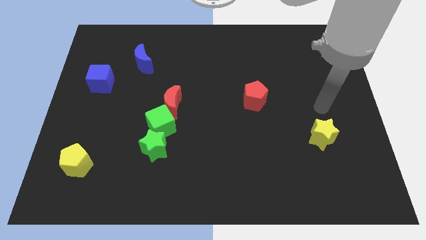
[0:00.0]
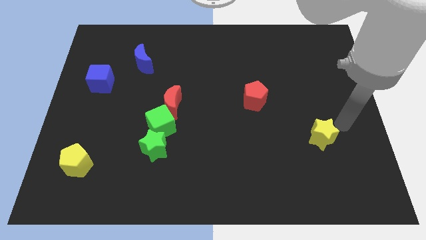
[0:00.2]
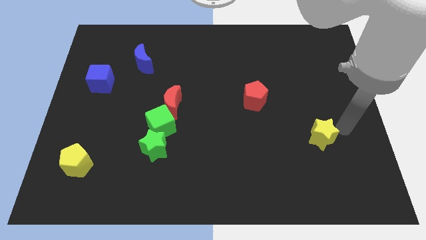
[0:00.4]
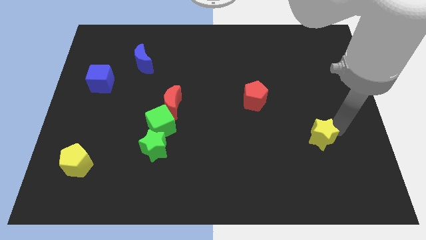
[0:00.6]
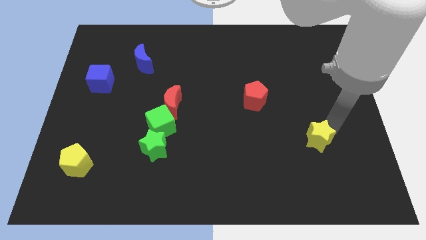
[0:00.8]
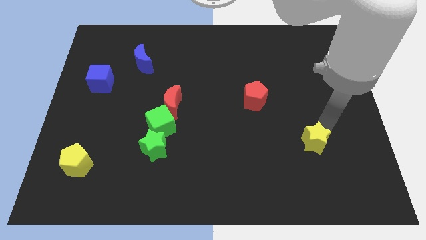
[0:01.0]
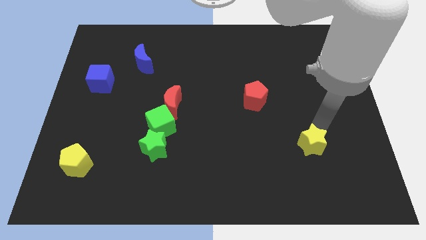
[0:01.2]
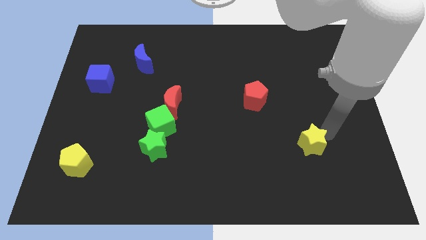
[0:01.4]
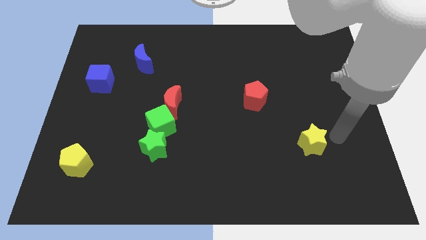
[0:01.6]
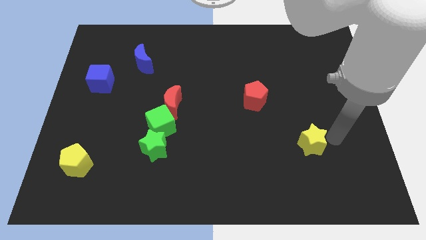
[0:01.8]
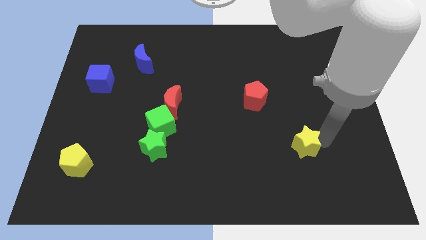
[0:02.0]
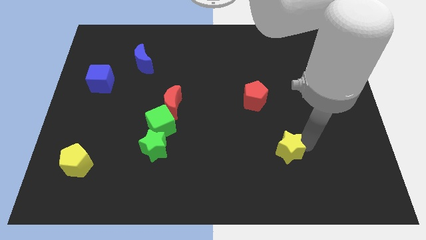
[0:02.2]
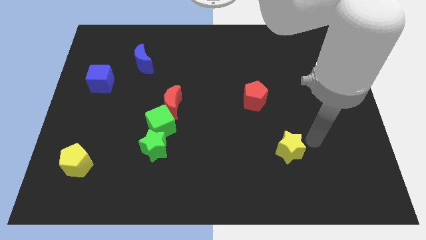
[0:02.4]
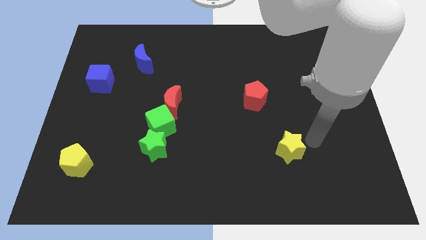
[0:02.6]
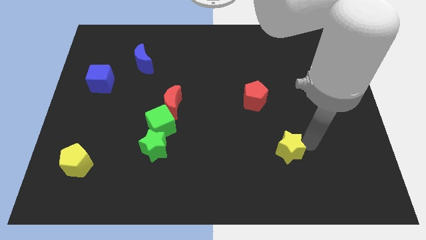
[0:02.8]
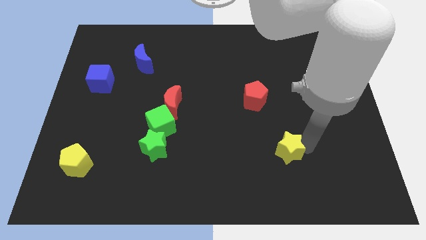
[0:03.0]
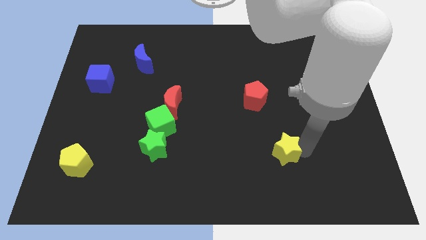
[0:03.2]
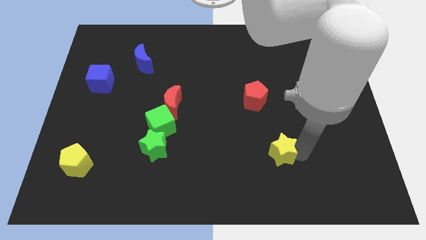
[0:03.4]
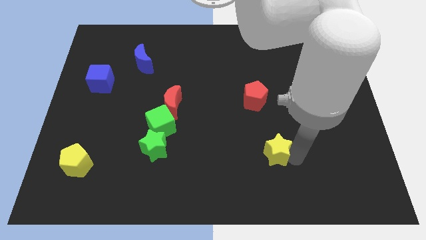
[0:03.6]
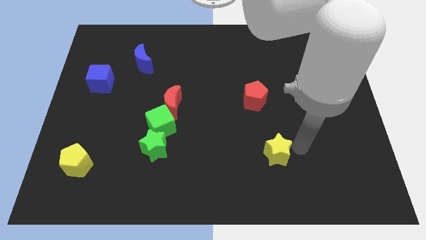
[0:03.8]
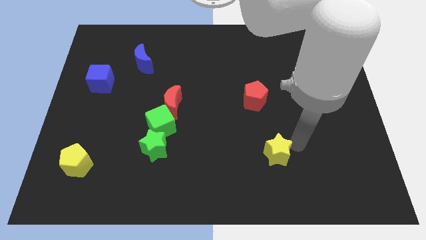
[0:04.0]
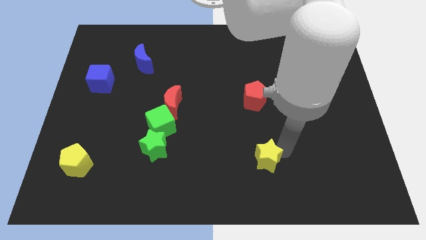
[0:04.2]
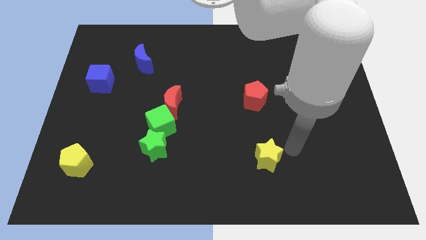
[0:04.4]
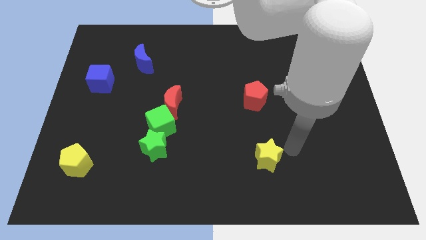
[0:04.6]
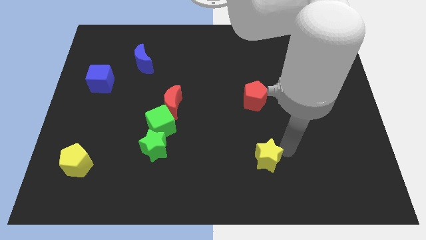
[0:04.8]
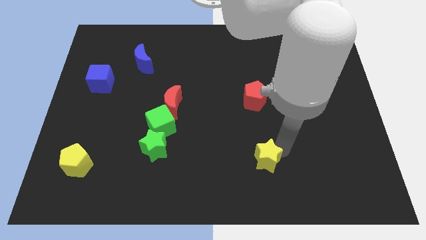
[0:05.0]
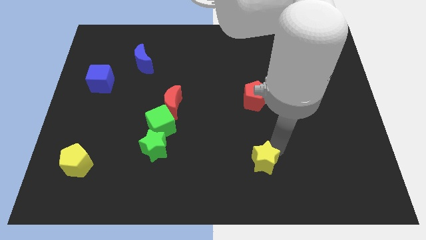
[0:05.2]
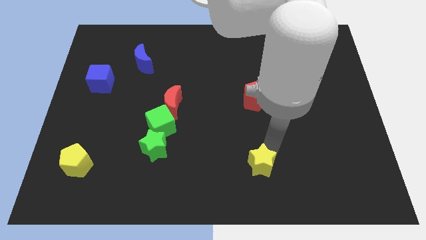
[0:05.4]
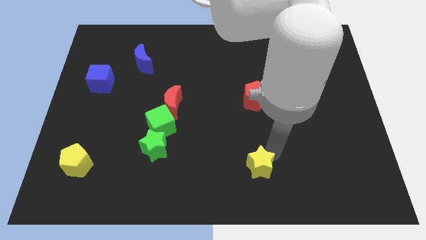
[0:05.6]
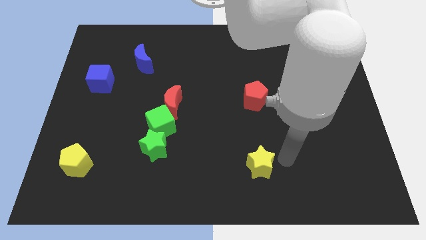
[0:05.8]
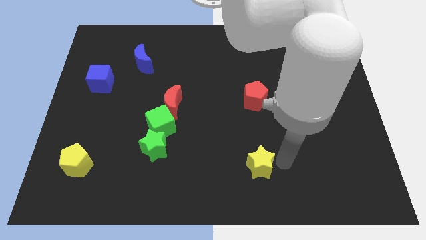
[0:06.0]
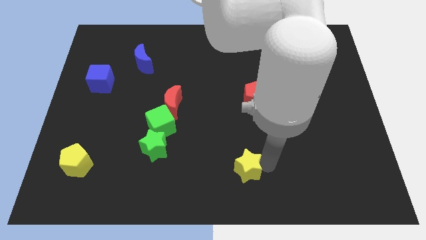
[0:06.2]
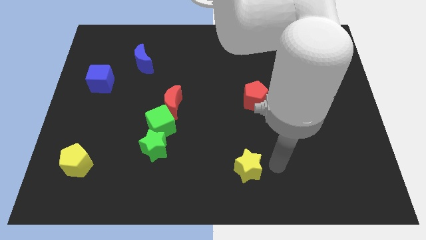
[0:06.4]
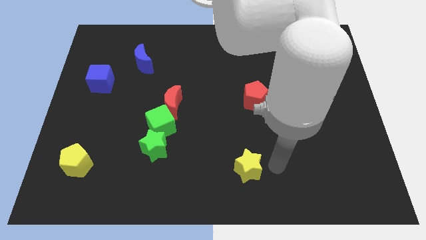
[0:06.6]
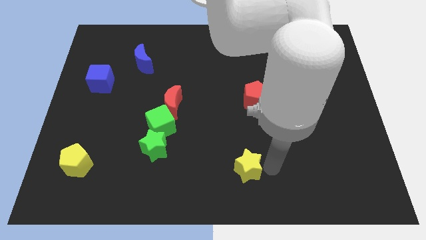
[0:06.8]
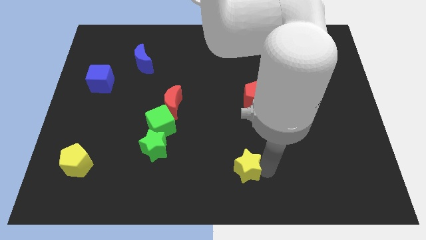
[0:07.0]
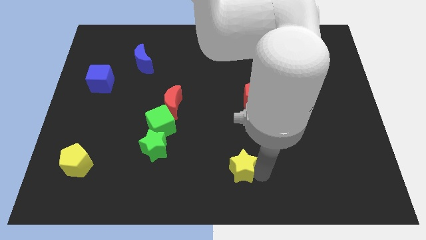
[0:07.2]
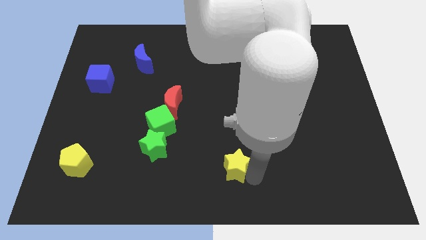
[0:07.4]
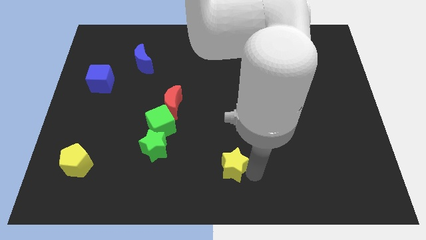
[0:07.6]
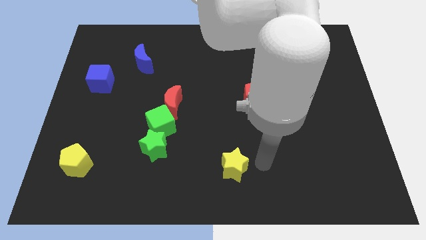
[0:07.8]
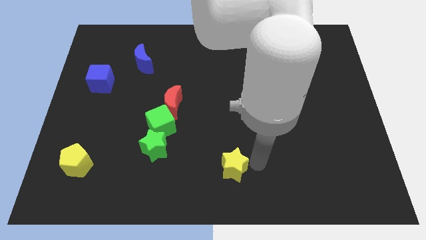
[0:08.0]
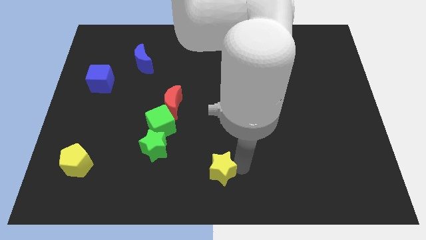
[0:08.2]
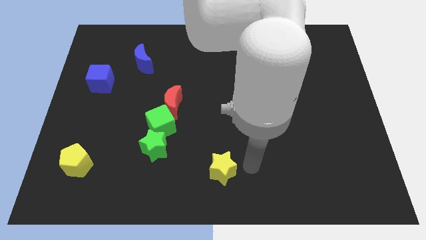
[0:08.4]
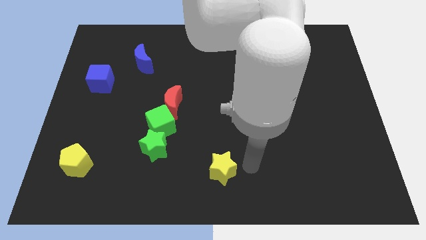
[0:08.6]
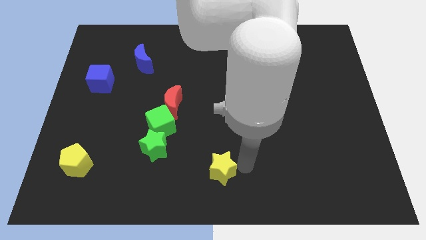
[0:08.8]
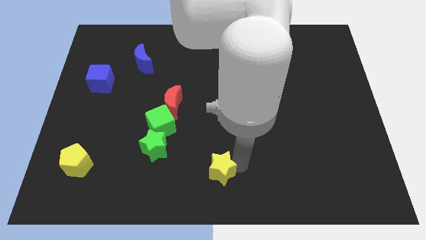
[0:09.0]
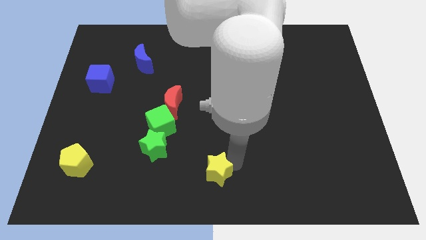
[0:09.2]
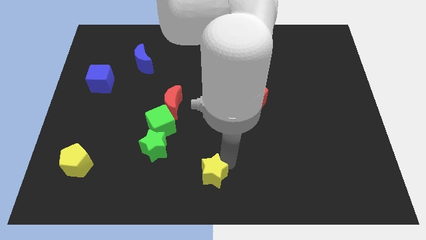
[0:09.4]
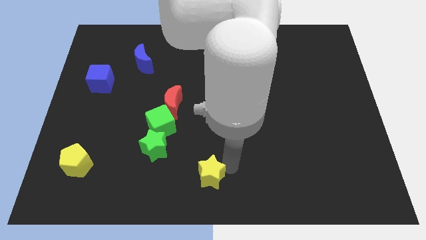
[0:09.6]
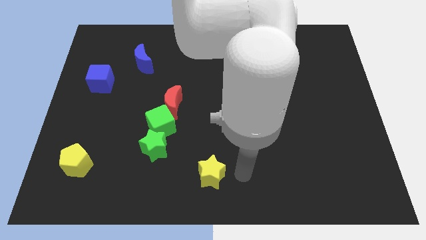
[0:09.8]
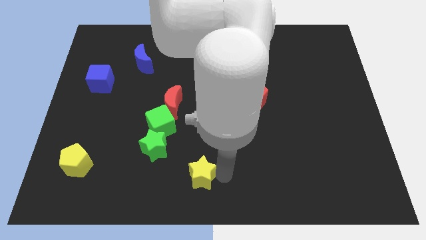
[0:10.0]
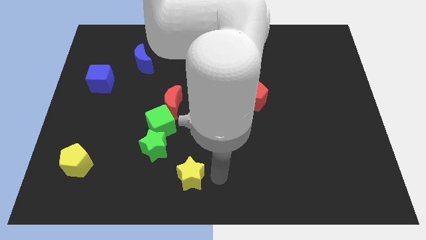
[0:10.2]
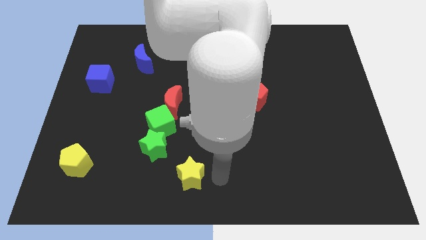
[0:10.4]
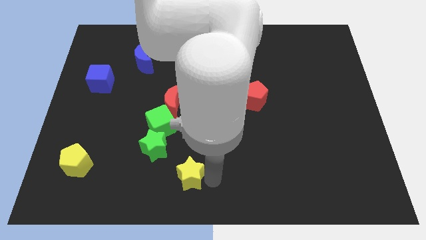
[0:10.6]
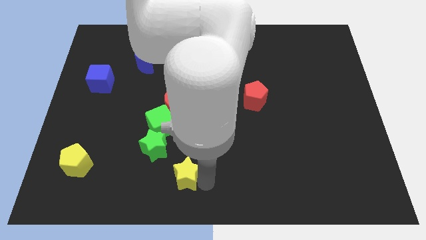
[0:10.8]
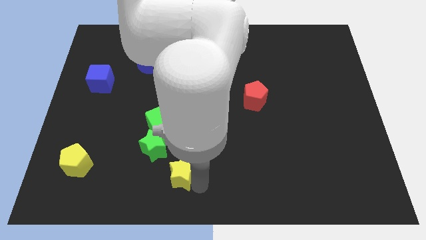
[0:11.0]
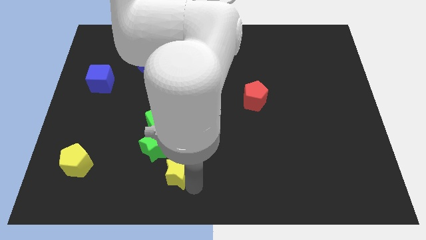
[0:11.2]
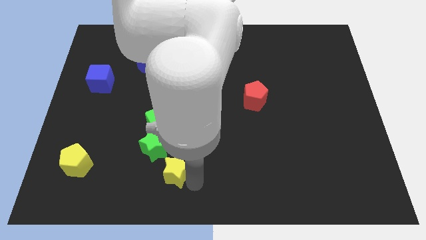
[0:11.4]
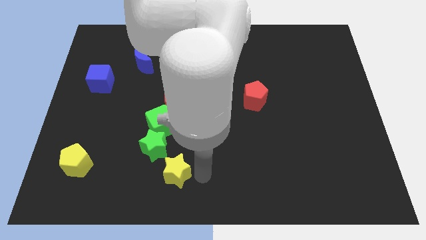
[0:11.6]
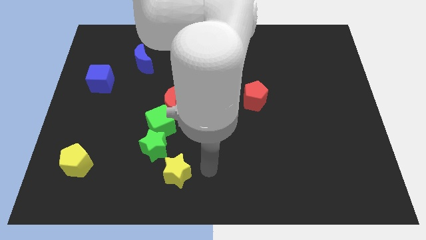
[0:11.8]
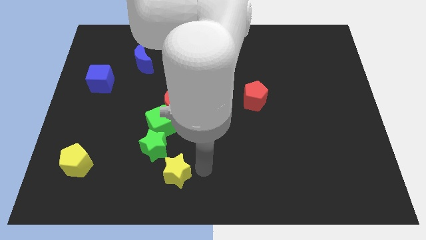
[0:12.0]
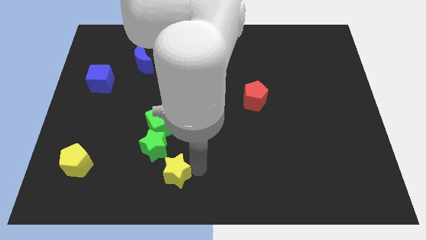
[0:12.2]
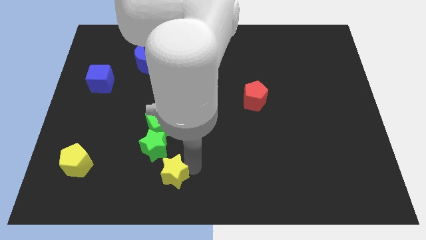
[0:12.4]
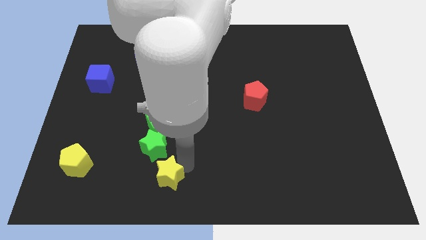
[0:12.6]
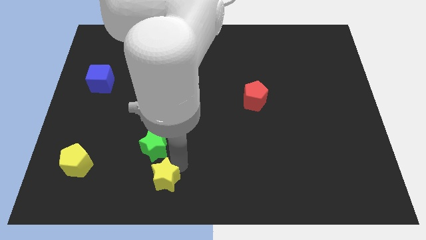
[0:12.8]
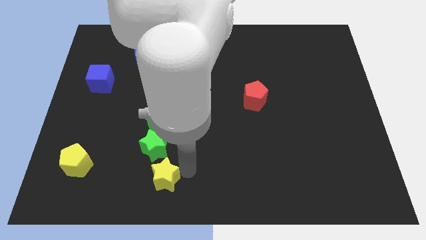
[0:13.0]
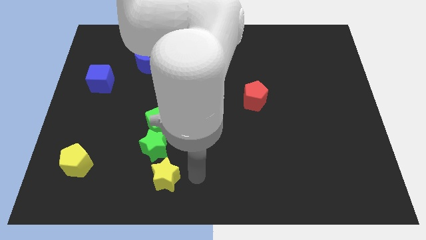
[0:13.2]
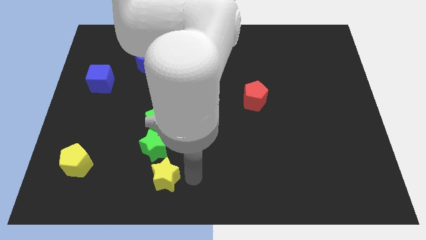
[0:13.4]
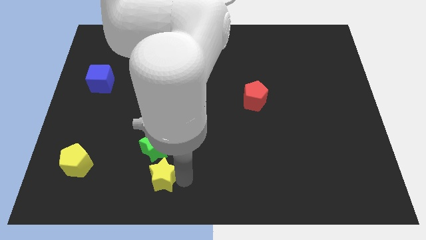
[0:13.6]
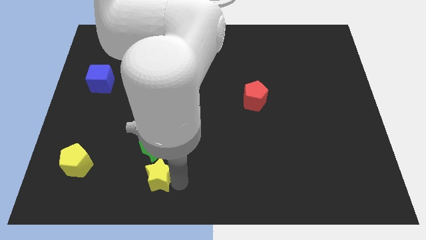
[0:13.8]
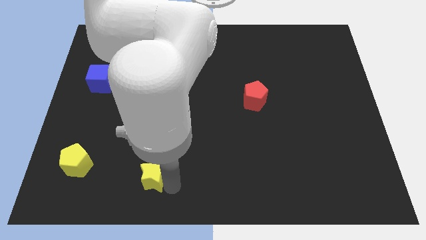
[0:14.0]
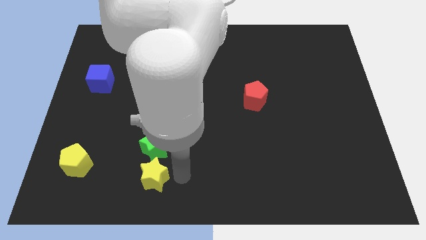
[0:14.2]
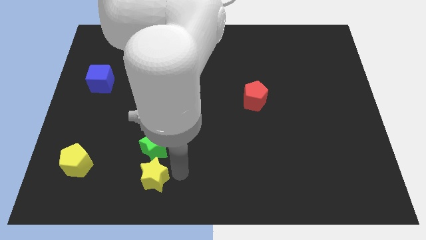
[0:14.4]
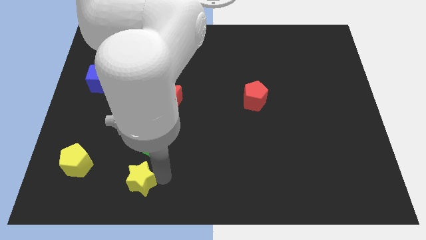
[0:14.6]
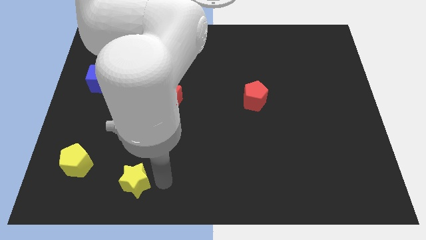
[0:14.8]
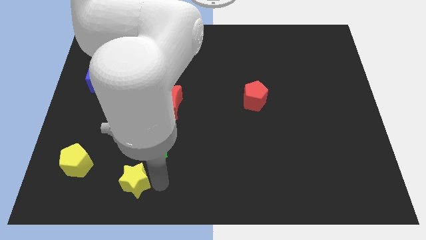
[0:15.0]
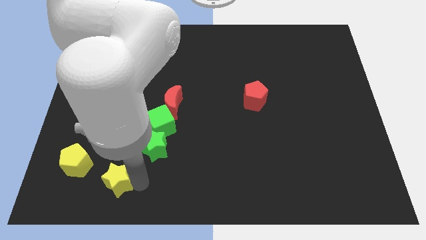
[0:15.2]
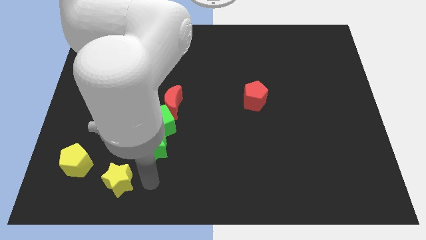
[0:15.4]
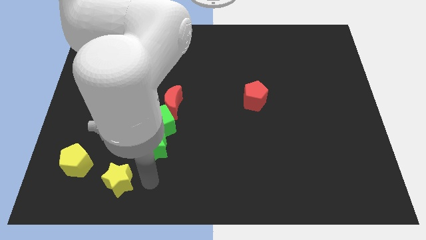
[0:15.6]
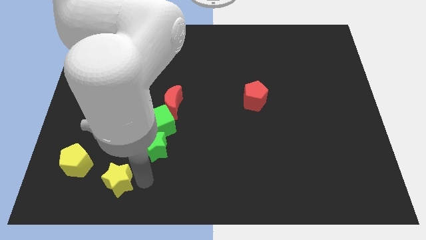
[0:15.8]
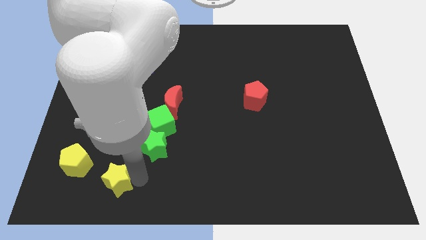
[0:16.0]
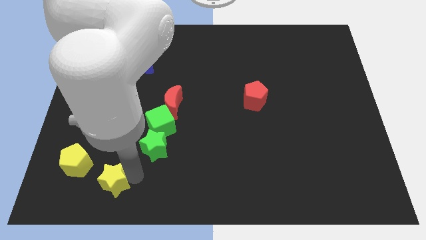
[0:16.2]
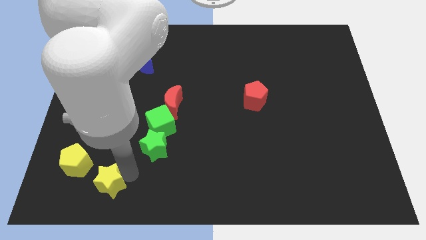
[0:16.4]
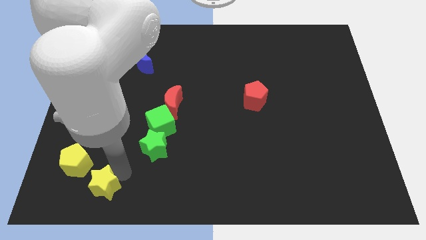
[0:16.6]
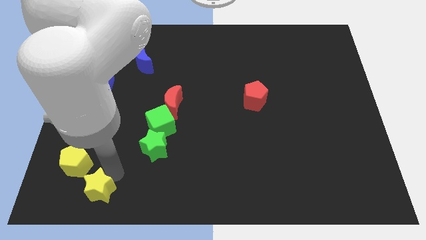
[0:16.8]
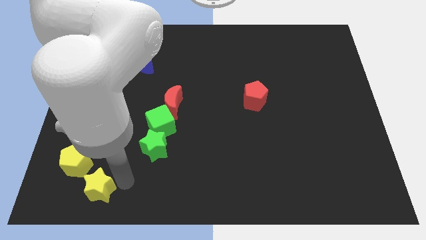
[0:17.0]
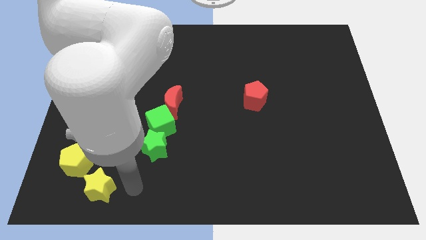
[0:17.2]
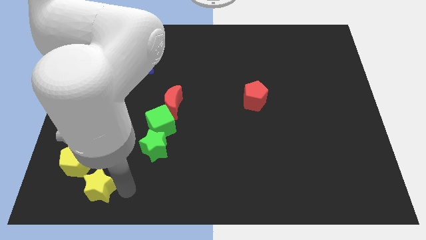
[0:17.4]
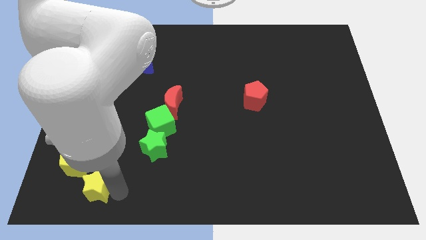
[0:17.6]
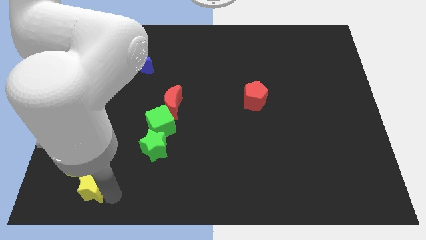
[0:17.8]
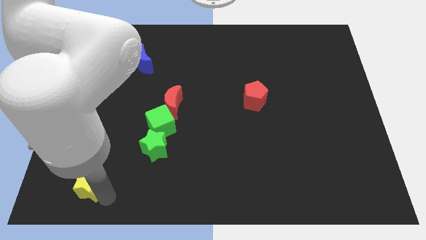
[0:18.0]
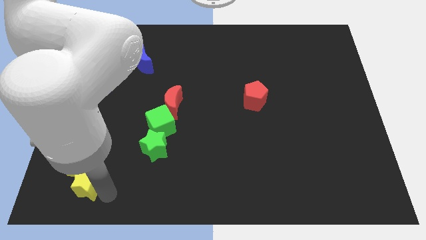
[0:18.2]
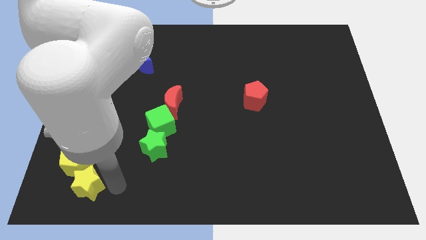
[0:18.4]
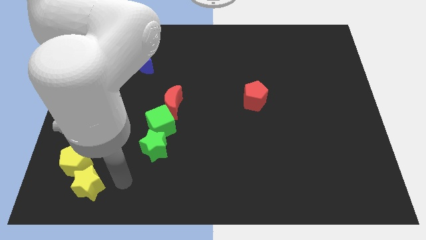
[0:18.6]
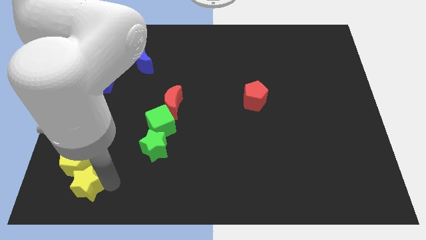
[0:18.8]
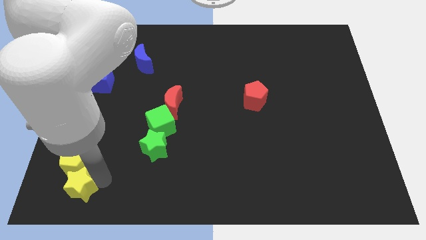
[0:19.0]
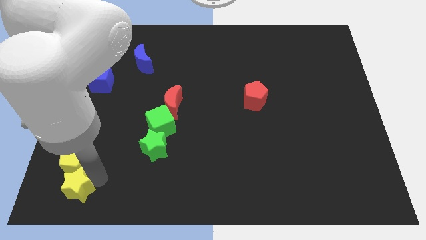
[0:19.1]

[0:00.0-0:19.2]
slide the yellow star to the bottom left corner
